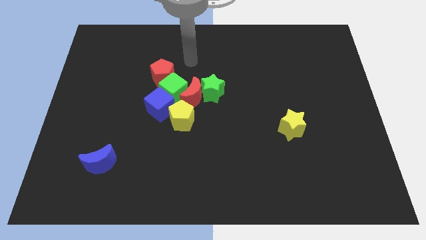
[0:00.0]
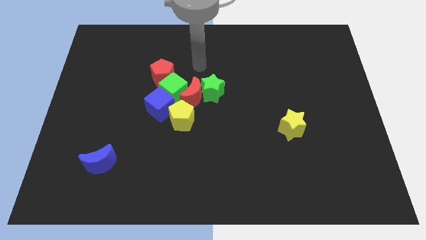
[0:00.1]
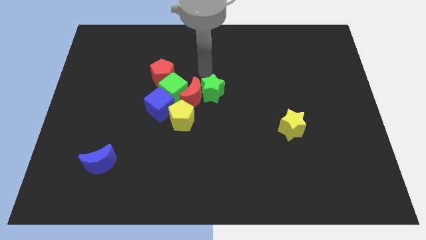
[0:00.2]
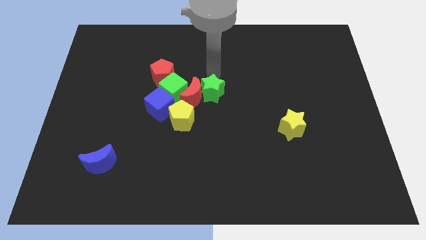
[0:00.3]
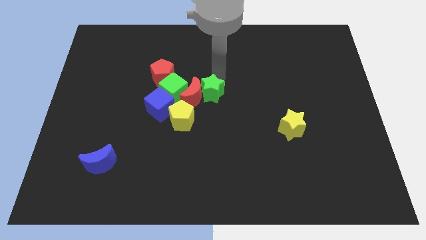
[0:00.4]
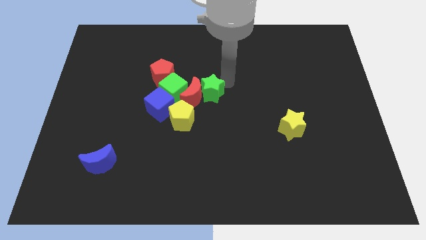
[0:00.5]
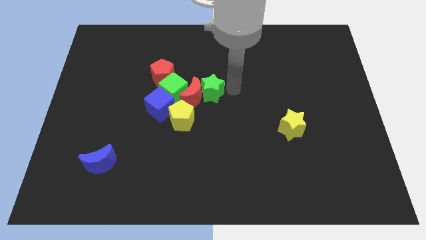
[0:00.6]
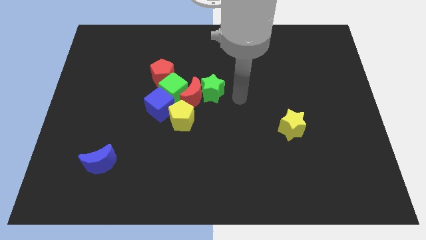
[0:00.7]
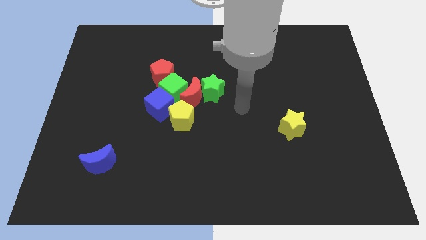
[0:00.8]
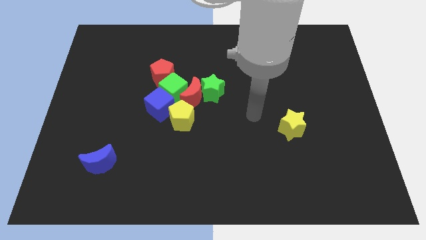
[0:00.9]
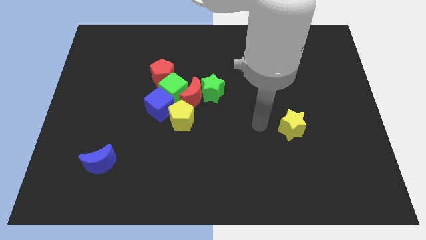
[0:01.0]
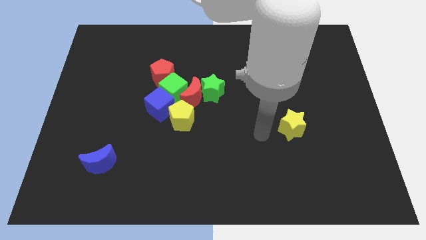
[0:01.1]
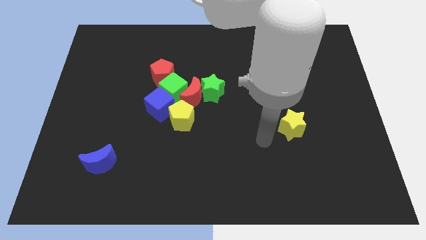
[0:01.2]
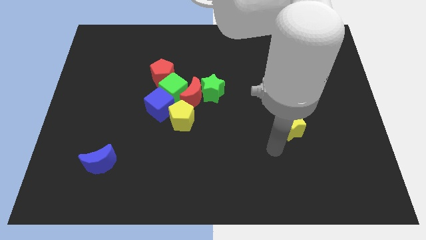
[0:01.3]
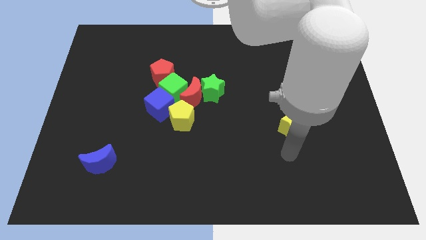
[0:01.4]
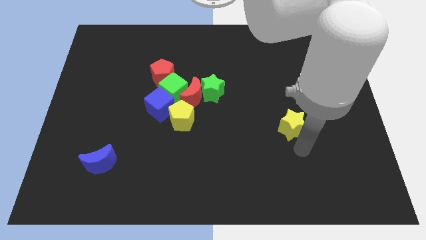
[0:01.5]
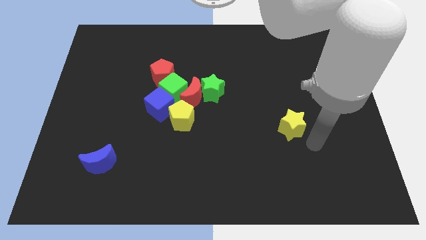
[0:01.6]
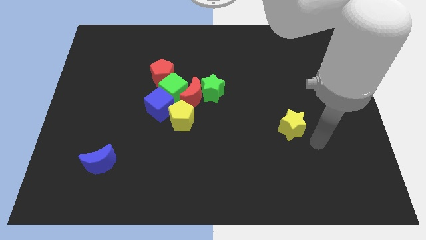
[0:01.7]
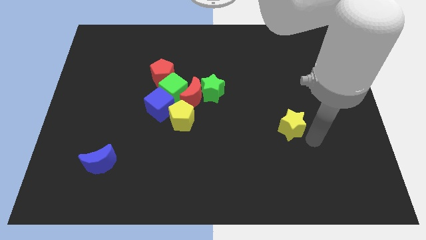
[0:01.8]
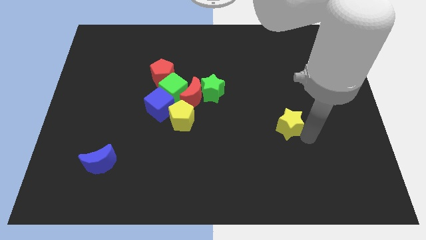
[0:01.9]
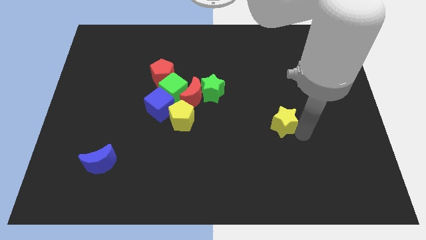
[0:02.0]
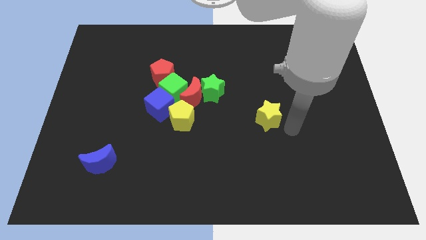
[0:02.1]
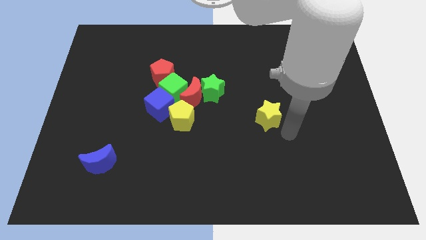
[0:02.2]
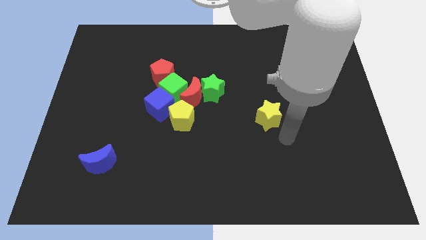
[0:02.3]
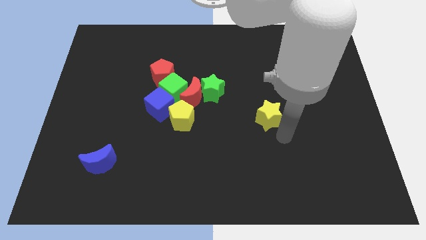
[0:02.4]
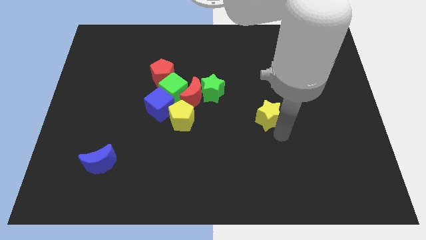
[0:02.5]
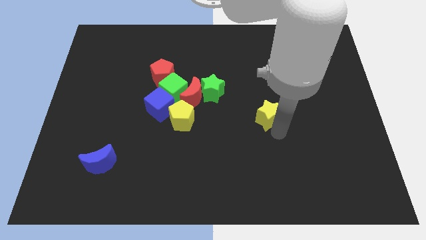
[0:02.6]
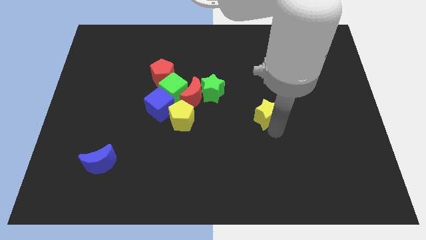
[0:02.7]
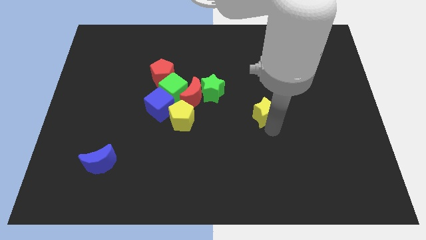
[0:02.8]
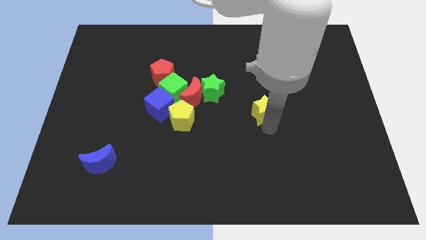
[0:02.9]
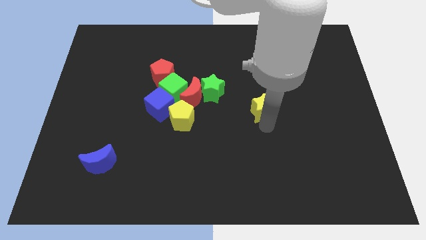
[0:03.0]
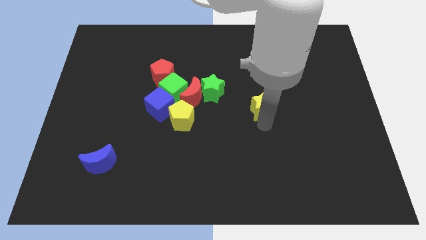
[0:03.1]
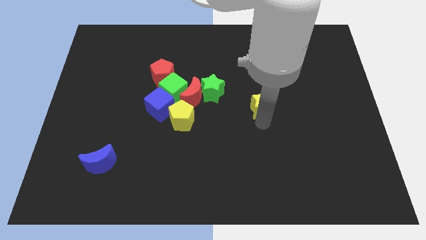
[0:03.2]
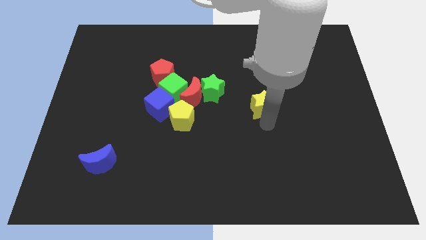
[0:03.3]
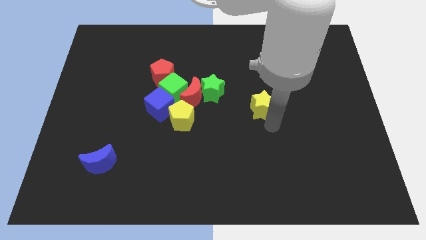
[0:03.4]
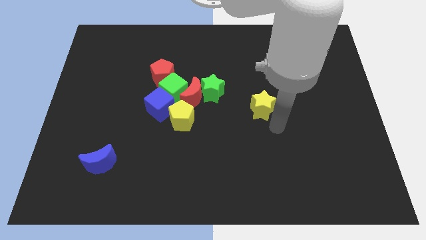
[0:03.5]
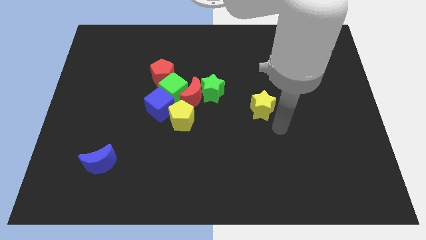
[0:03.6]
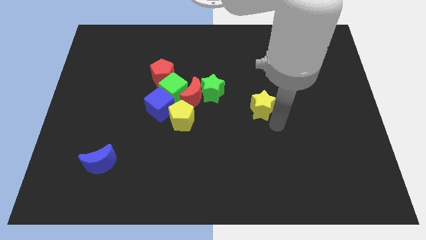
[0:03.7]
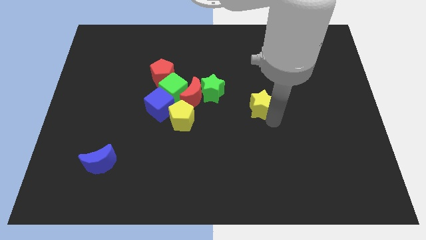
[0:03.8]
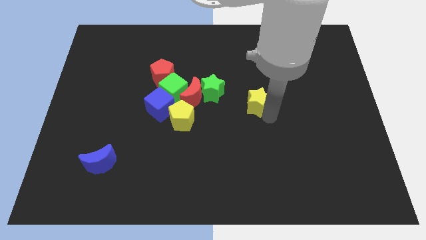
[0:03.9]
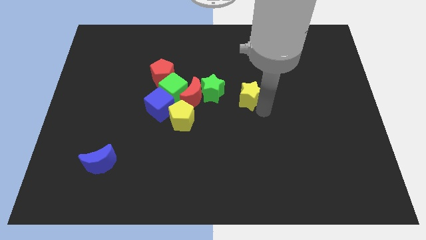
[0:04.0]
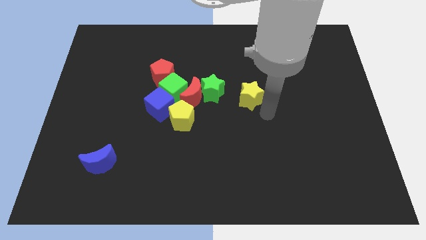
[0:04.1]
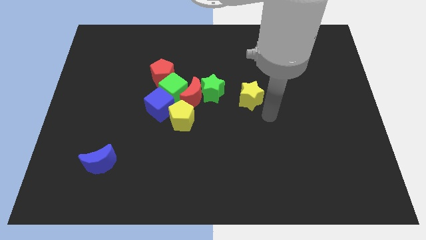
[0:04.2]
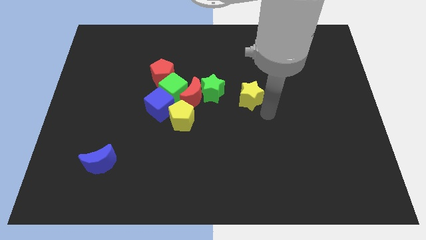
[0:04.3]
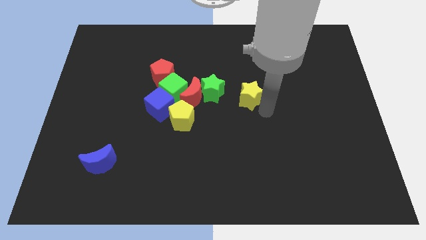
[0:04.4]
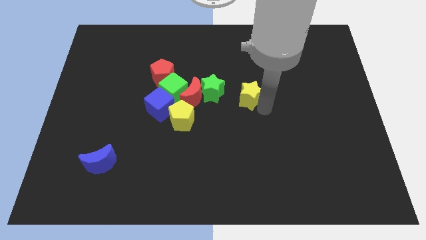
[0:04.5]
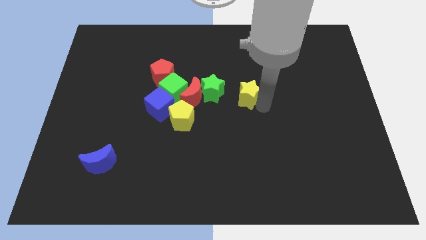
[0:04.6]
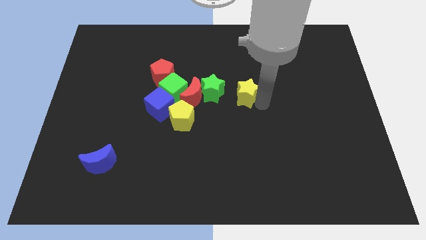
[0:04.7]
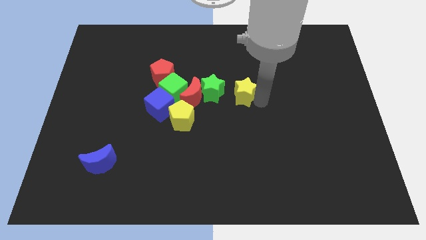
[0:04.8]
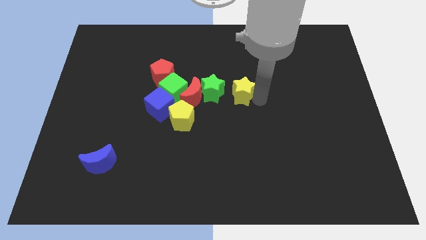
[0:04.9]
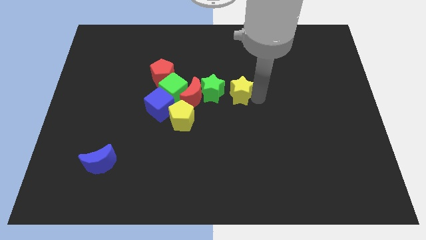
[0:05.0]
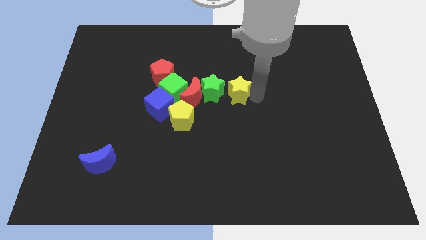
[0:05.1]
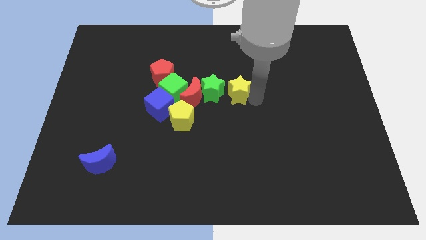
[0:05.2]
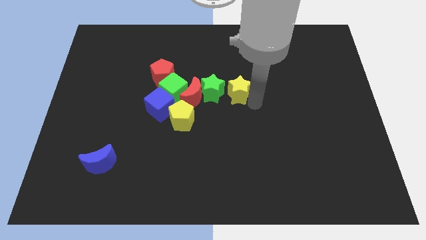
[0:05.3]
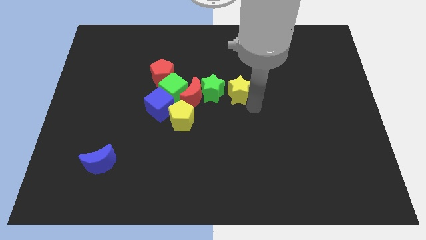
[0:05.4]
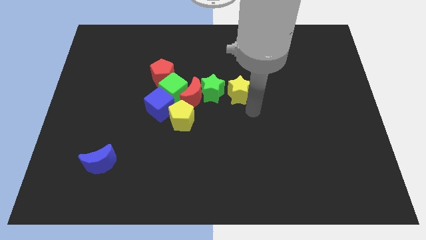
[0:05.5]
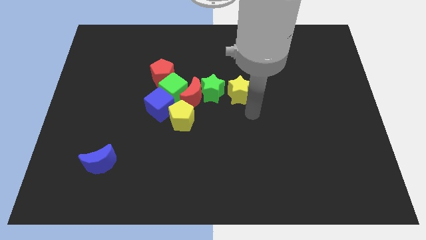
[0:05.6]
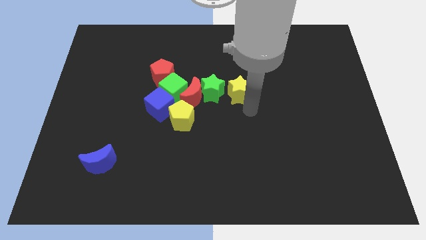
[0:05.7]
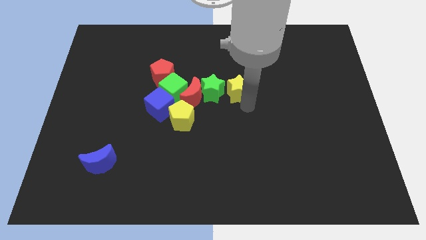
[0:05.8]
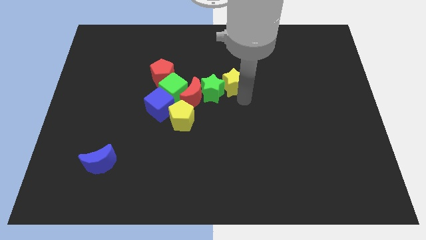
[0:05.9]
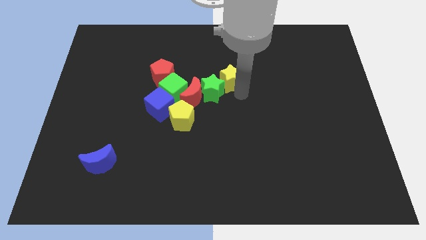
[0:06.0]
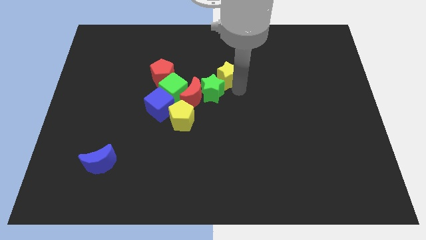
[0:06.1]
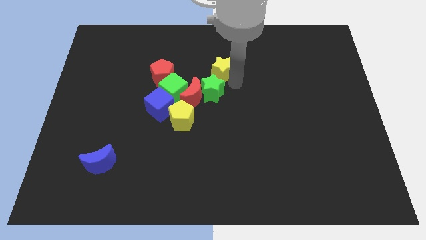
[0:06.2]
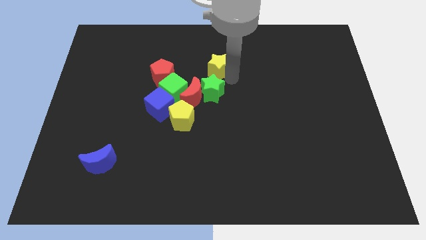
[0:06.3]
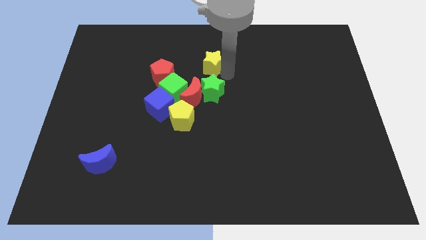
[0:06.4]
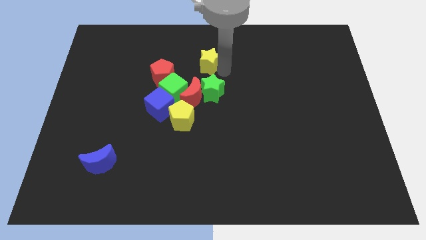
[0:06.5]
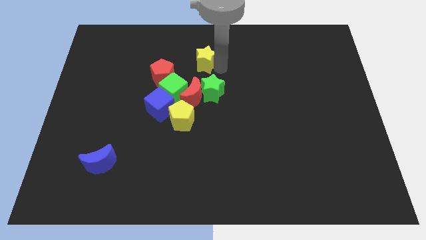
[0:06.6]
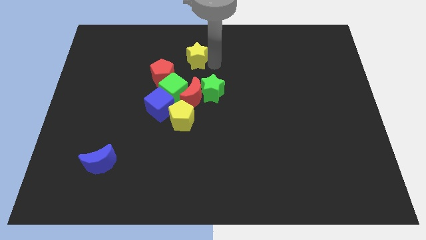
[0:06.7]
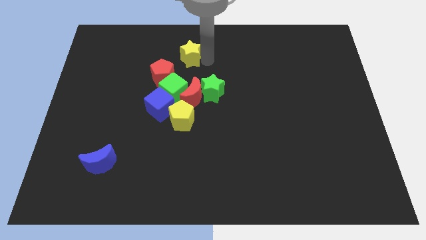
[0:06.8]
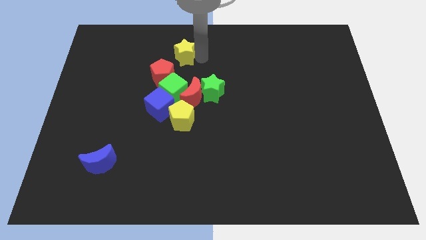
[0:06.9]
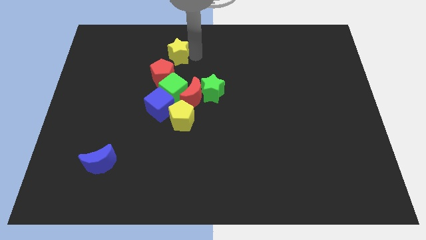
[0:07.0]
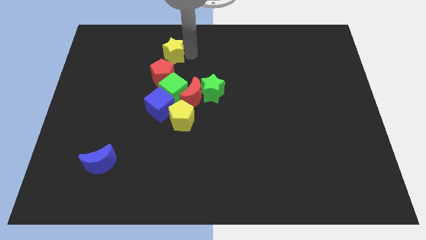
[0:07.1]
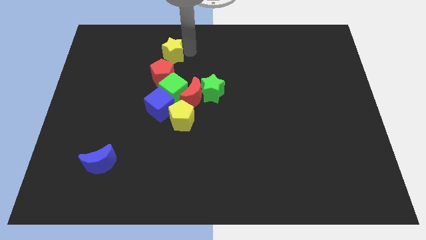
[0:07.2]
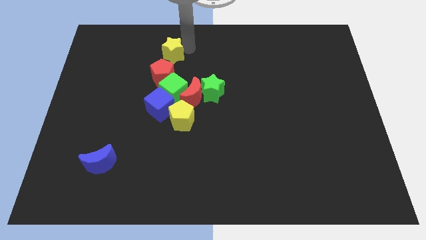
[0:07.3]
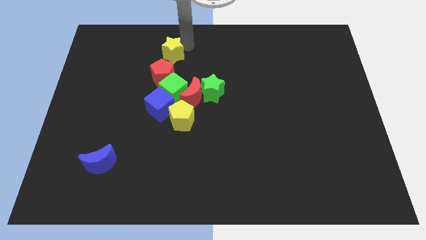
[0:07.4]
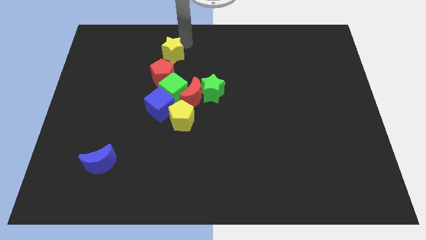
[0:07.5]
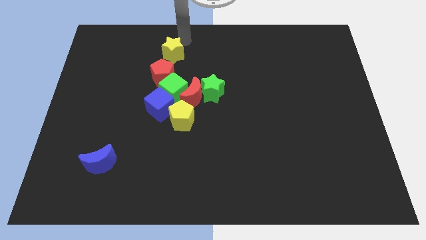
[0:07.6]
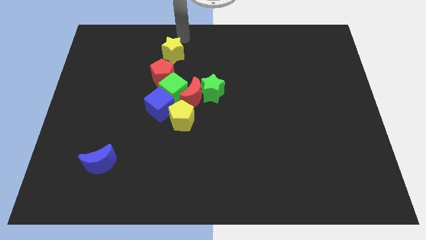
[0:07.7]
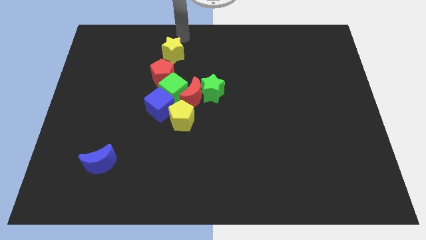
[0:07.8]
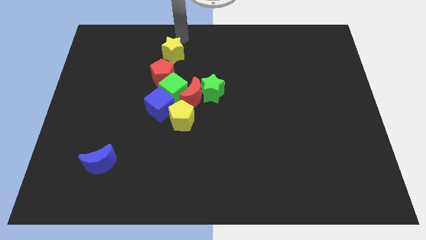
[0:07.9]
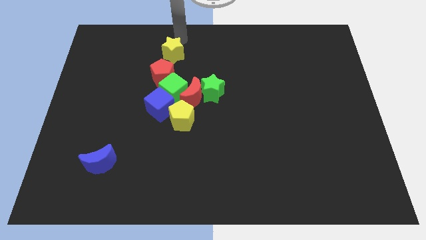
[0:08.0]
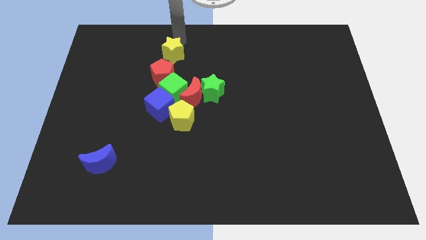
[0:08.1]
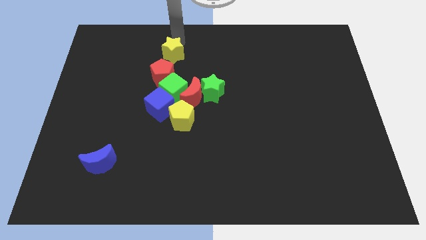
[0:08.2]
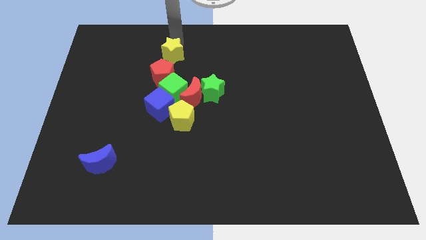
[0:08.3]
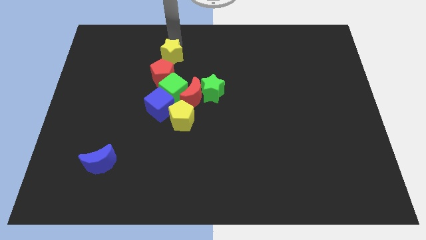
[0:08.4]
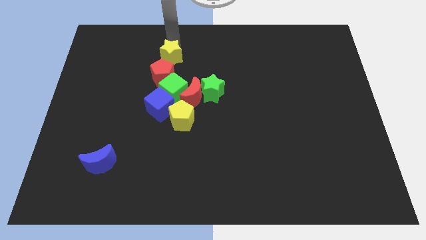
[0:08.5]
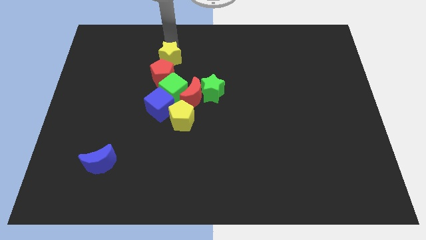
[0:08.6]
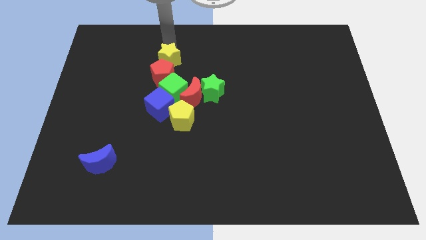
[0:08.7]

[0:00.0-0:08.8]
push the yellow star to the top of the blue cube
